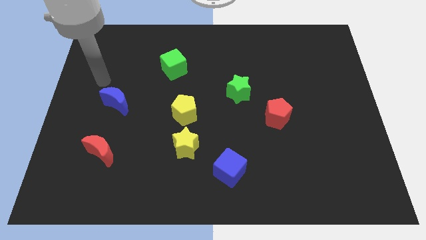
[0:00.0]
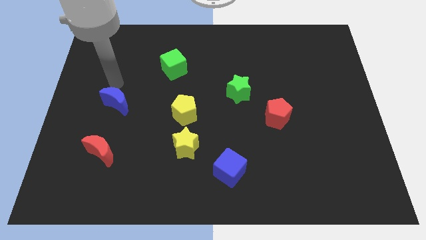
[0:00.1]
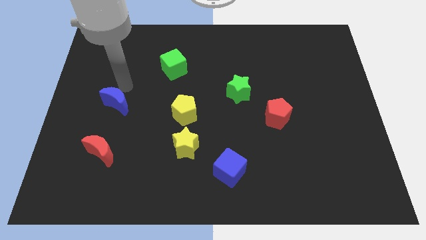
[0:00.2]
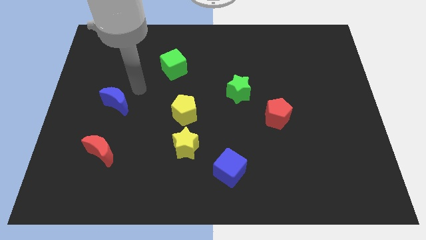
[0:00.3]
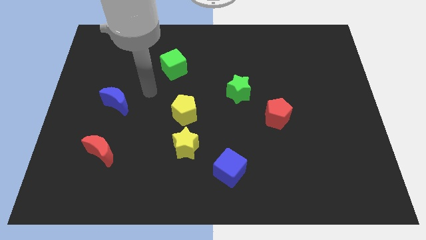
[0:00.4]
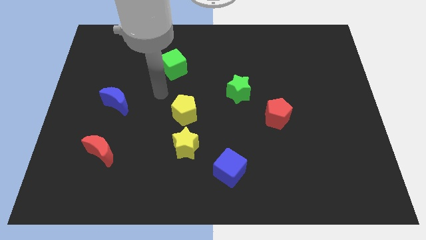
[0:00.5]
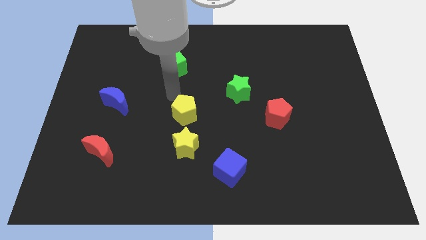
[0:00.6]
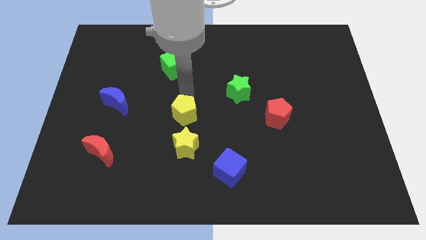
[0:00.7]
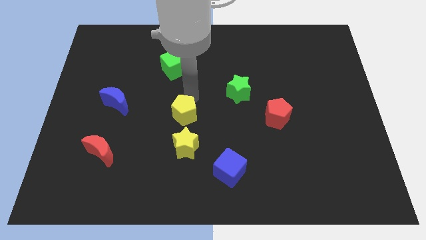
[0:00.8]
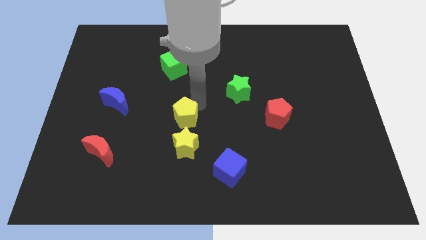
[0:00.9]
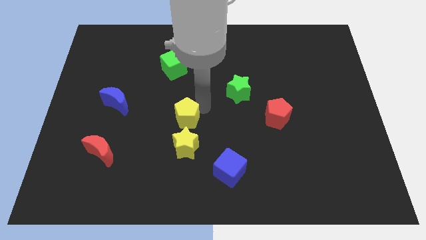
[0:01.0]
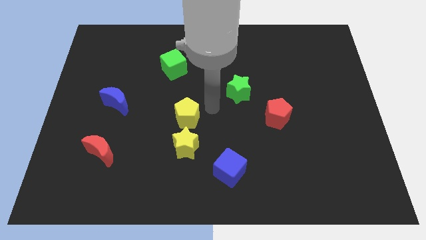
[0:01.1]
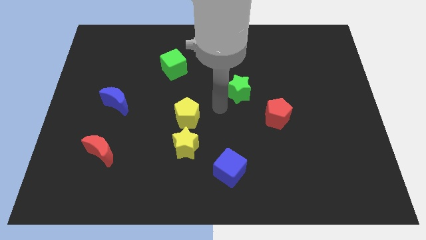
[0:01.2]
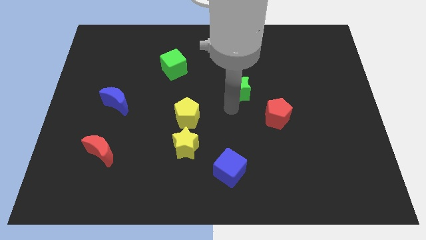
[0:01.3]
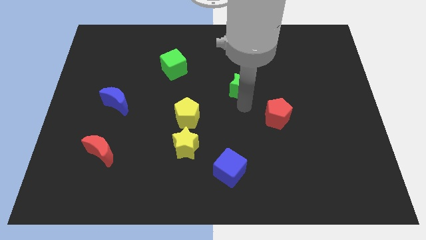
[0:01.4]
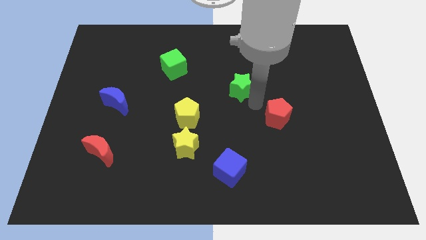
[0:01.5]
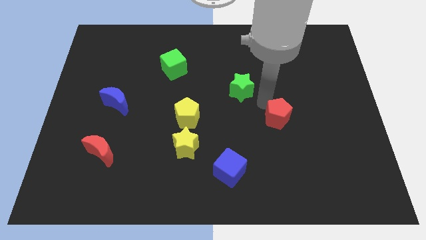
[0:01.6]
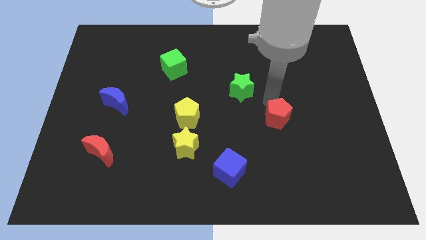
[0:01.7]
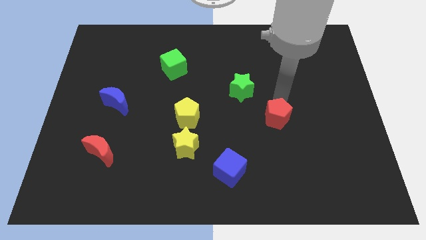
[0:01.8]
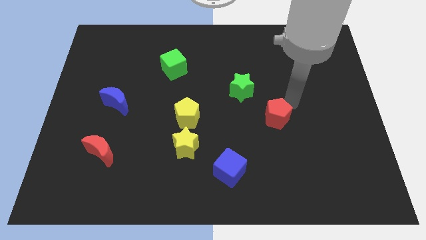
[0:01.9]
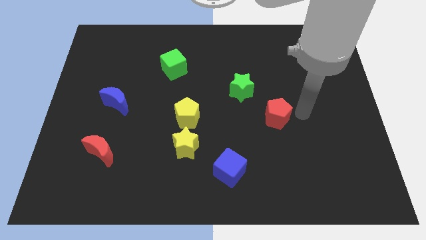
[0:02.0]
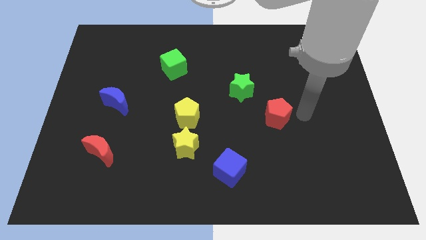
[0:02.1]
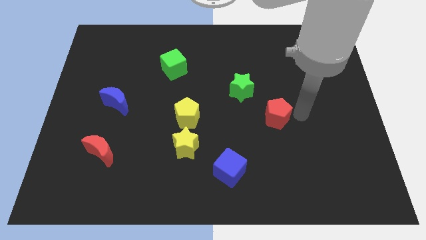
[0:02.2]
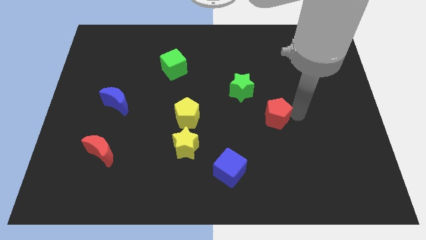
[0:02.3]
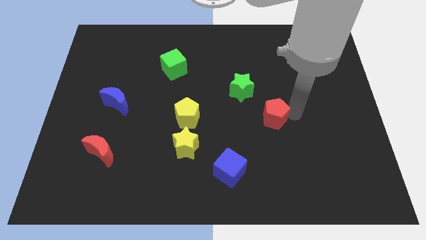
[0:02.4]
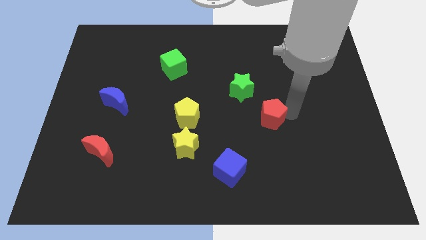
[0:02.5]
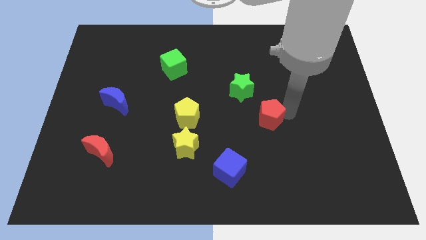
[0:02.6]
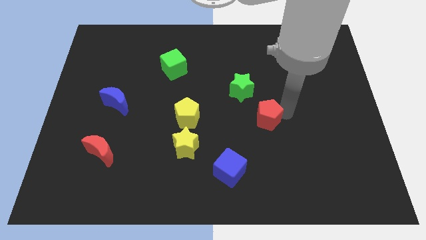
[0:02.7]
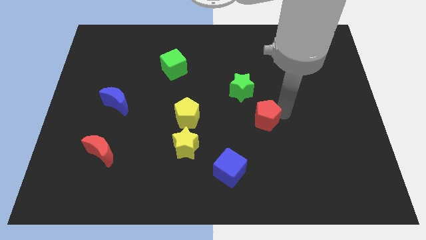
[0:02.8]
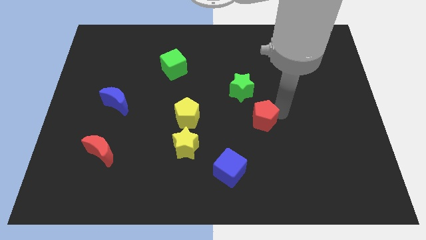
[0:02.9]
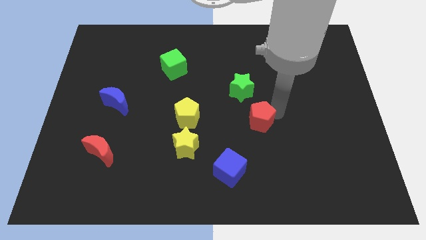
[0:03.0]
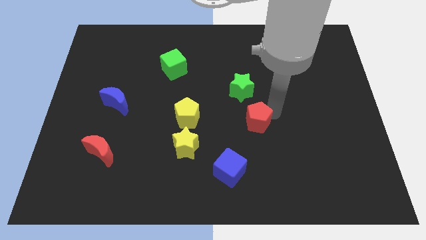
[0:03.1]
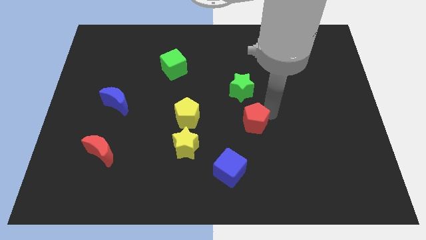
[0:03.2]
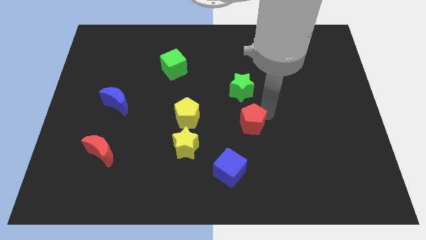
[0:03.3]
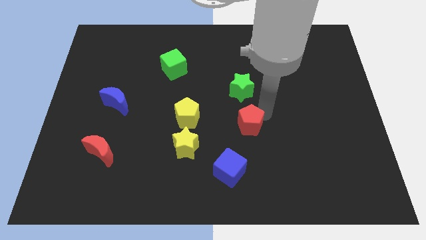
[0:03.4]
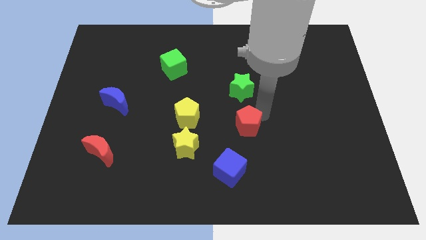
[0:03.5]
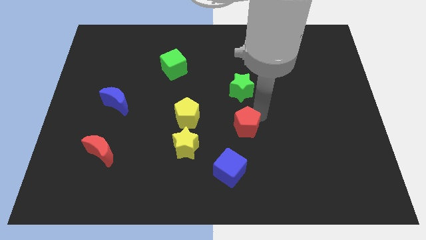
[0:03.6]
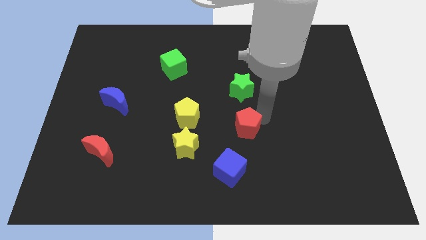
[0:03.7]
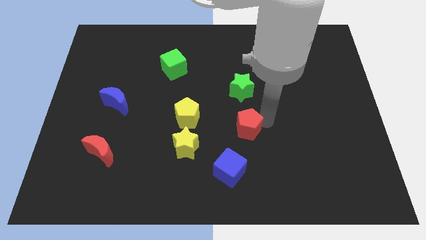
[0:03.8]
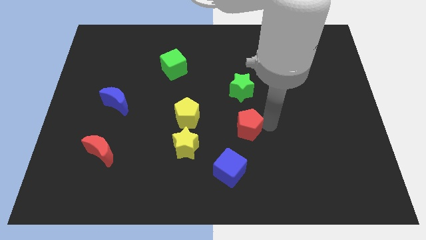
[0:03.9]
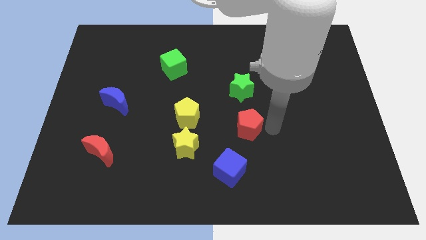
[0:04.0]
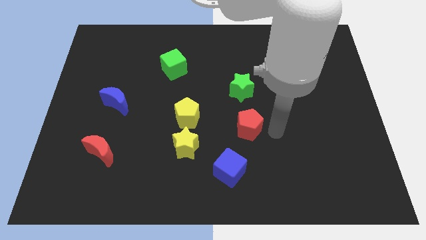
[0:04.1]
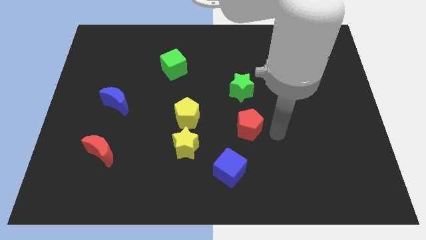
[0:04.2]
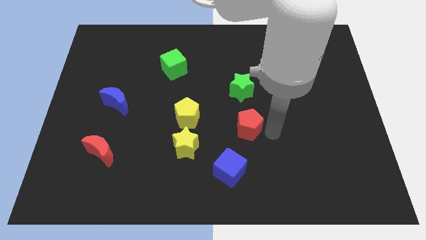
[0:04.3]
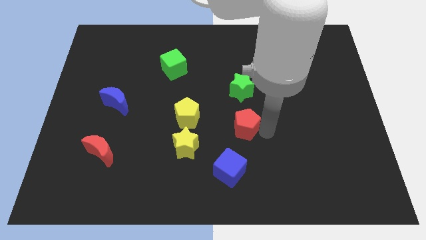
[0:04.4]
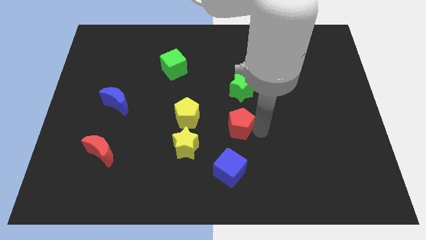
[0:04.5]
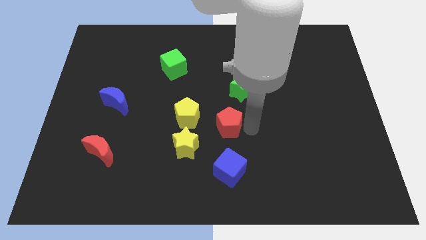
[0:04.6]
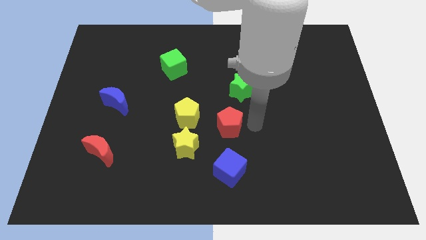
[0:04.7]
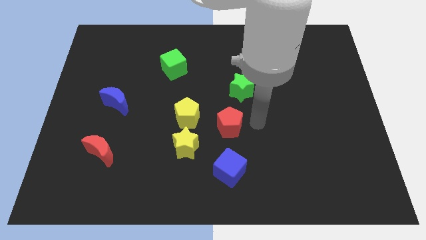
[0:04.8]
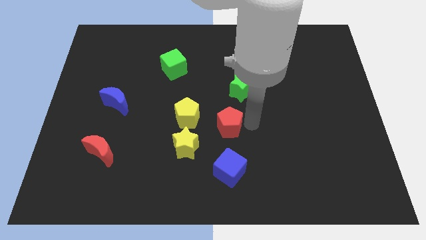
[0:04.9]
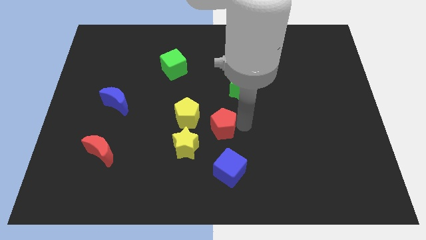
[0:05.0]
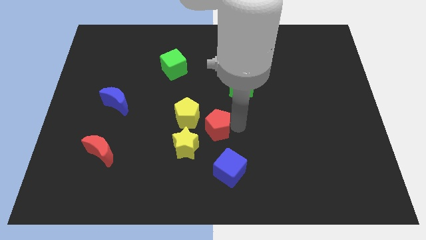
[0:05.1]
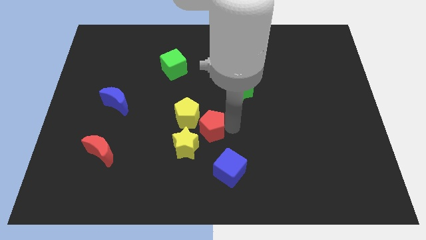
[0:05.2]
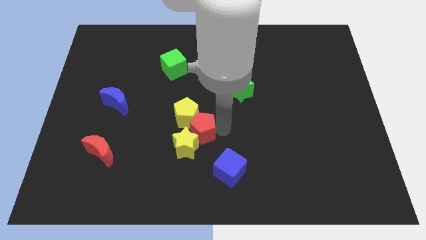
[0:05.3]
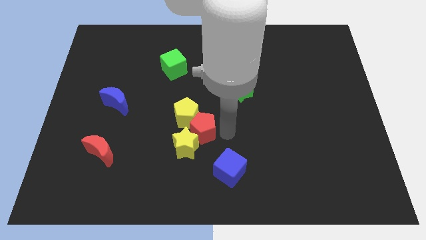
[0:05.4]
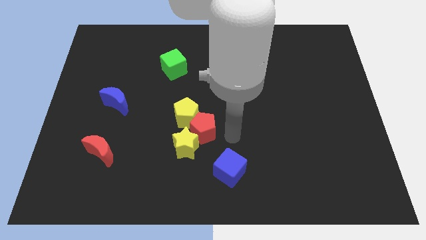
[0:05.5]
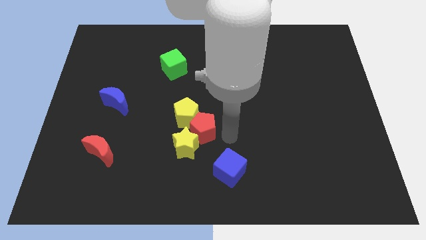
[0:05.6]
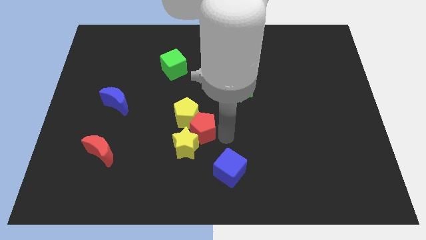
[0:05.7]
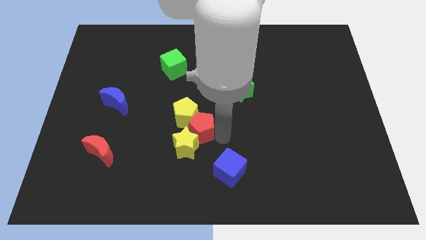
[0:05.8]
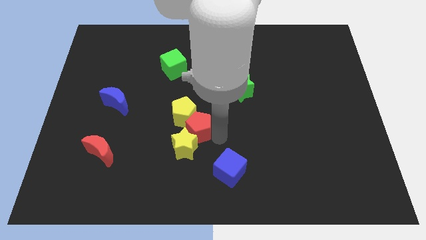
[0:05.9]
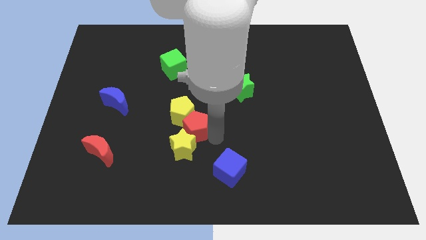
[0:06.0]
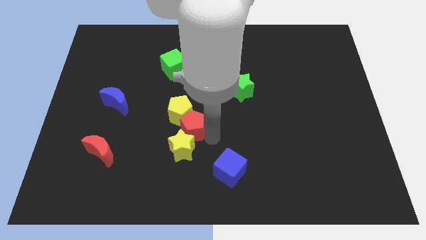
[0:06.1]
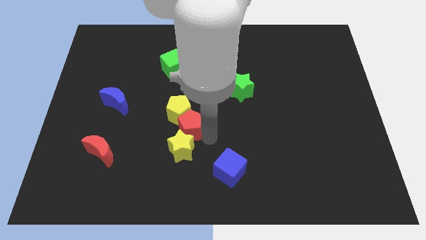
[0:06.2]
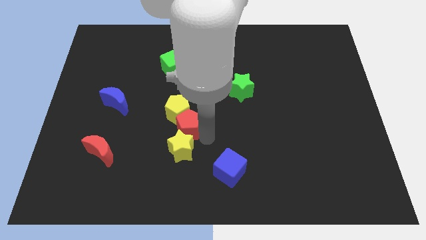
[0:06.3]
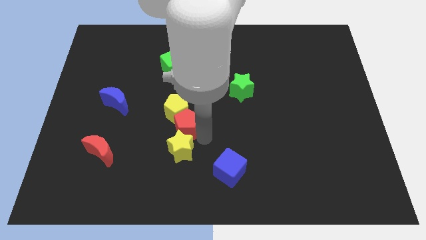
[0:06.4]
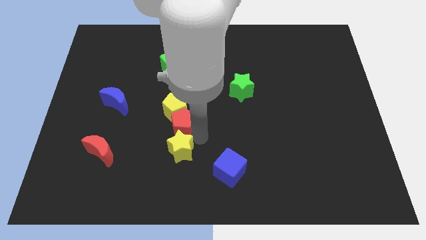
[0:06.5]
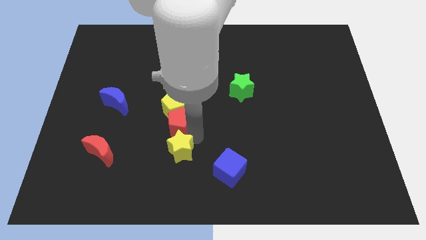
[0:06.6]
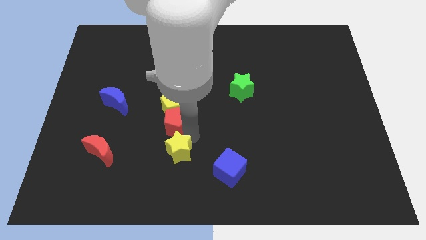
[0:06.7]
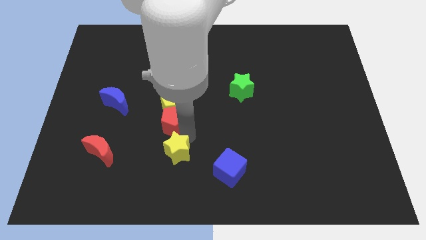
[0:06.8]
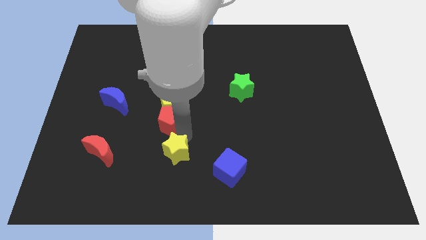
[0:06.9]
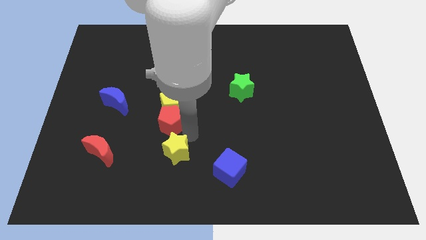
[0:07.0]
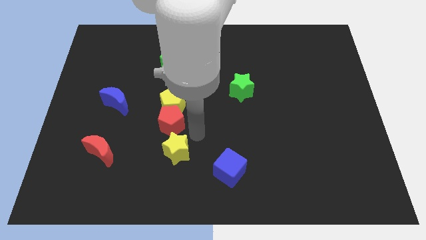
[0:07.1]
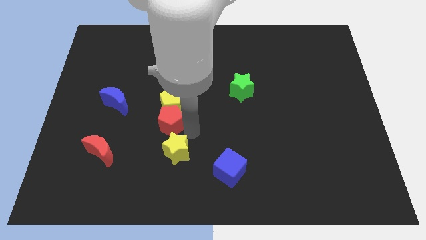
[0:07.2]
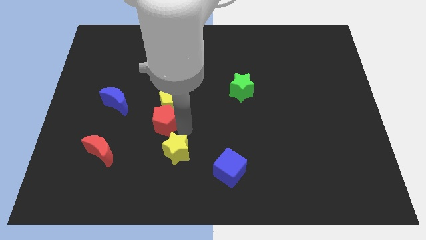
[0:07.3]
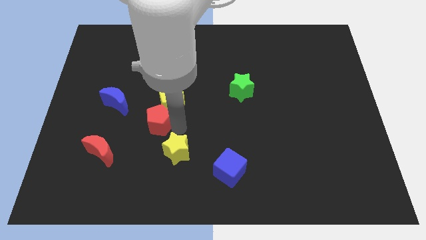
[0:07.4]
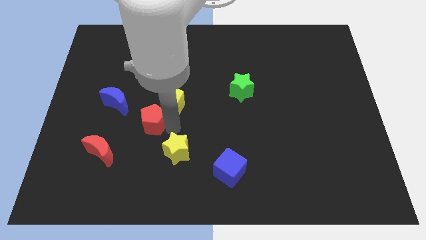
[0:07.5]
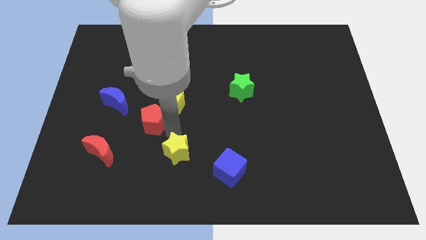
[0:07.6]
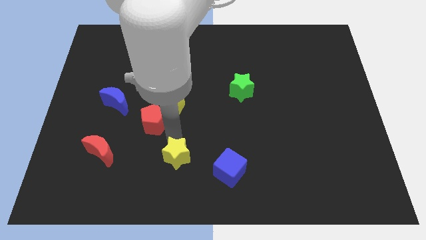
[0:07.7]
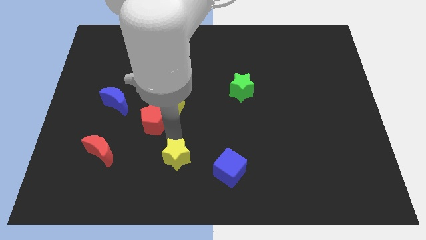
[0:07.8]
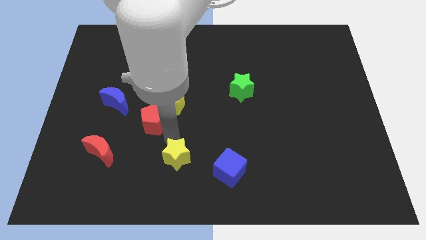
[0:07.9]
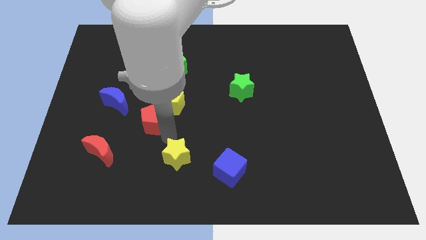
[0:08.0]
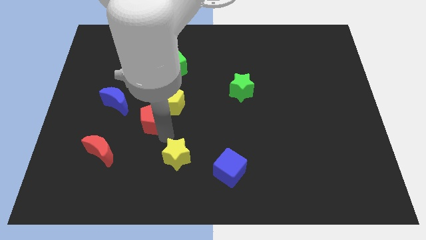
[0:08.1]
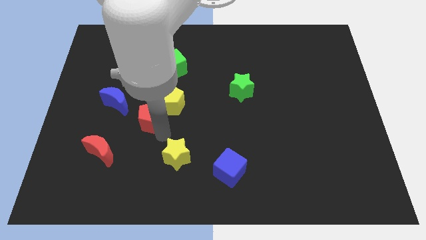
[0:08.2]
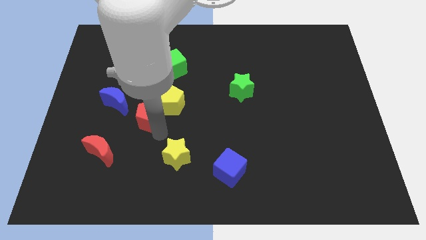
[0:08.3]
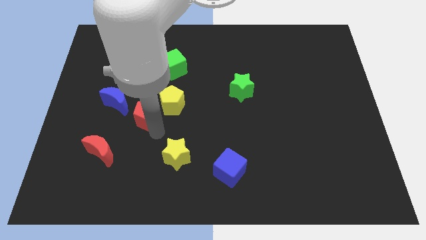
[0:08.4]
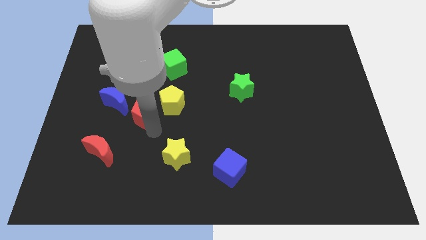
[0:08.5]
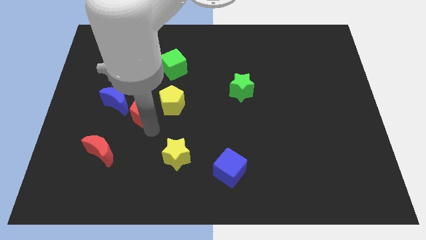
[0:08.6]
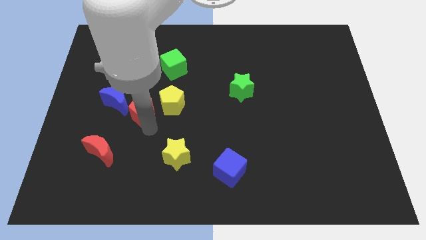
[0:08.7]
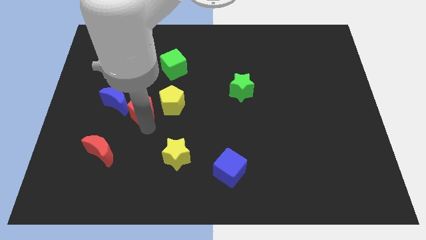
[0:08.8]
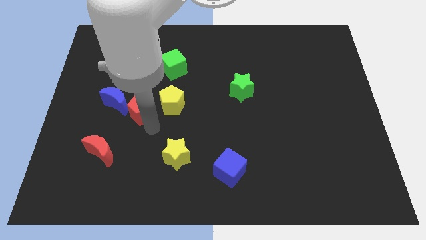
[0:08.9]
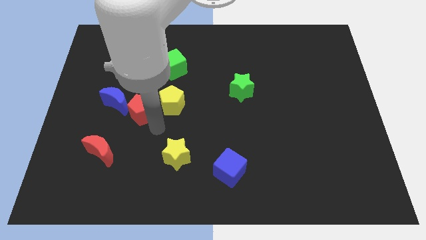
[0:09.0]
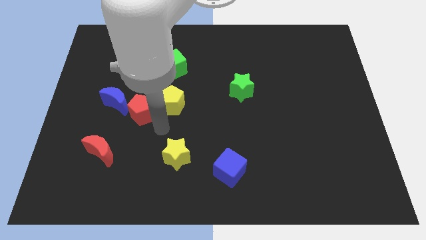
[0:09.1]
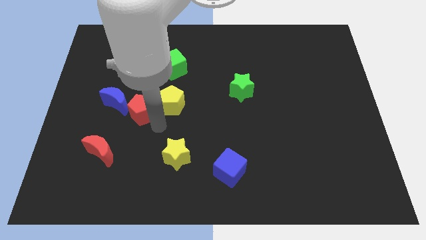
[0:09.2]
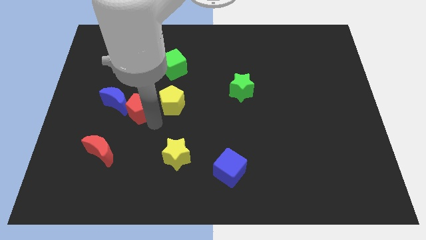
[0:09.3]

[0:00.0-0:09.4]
slide the red pentagon close to the blue moon
